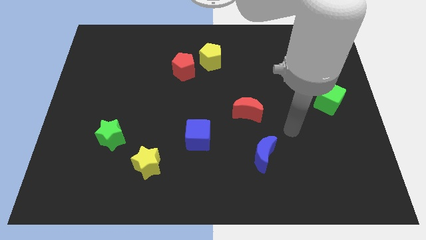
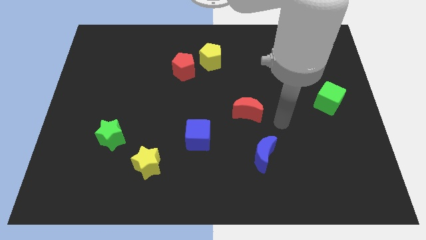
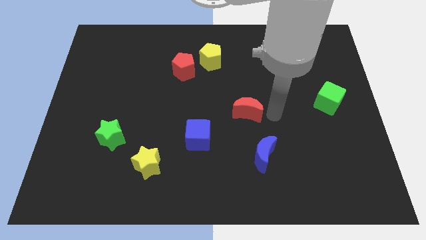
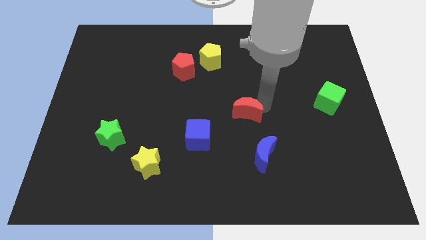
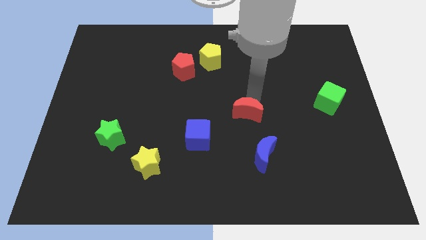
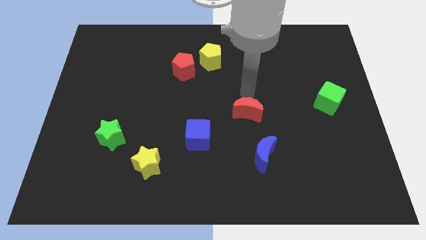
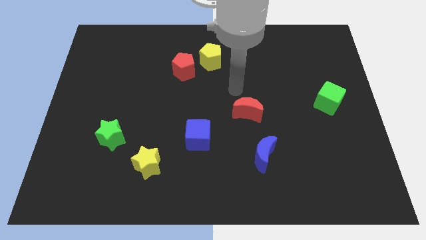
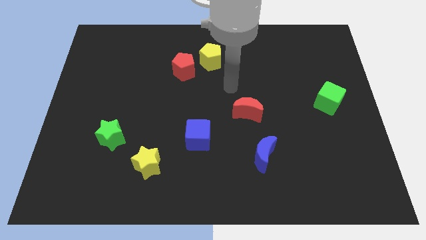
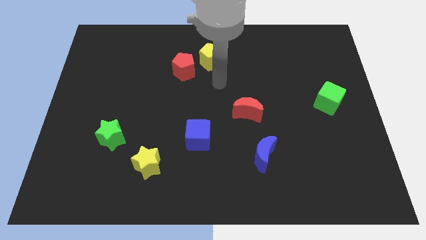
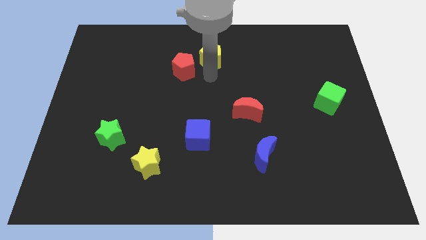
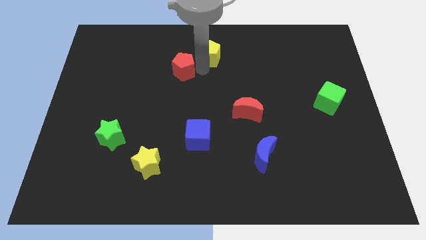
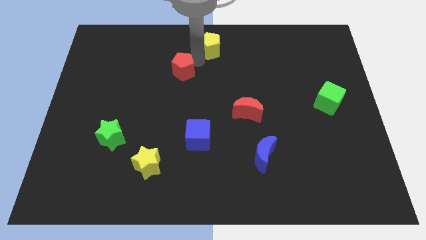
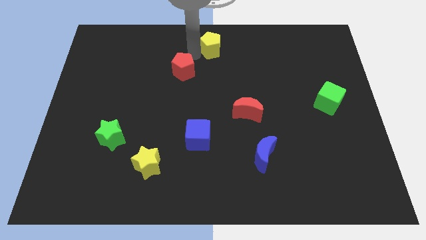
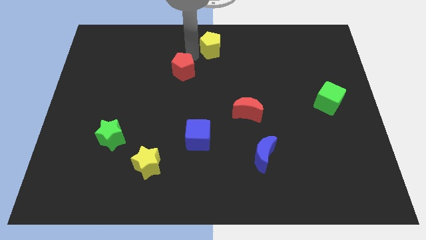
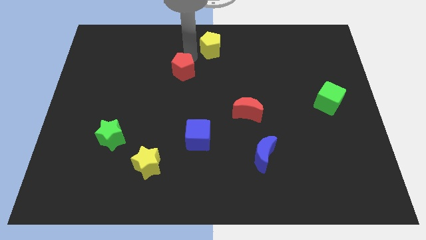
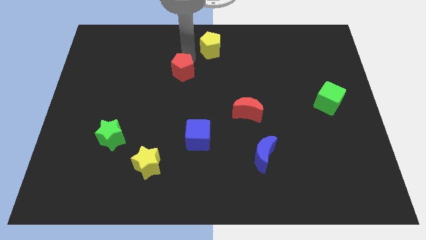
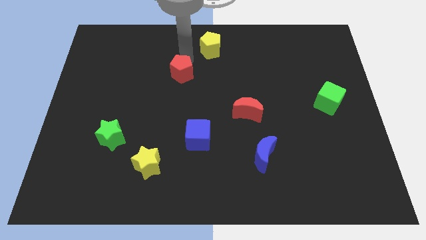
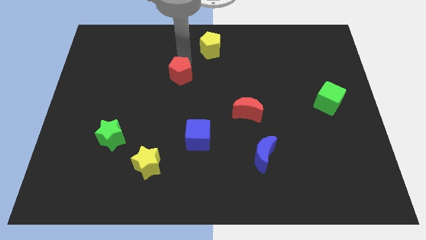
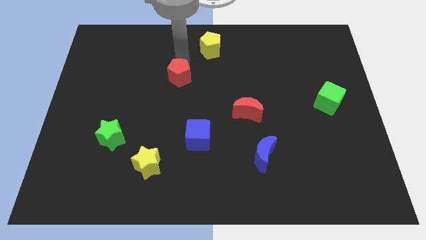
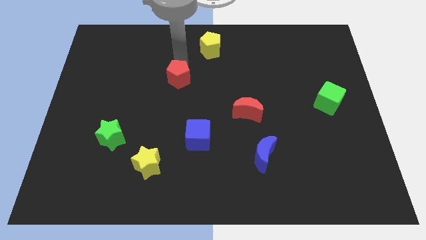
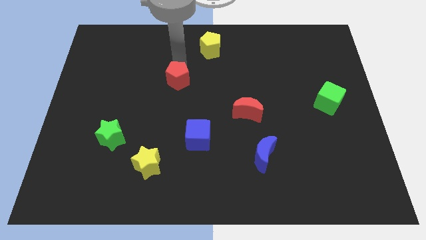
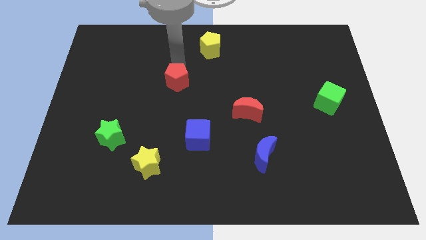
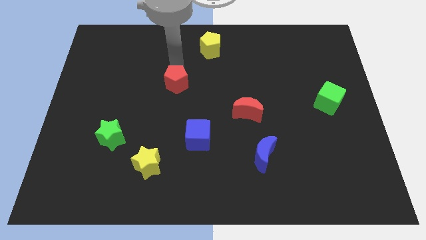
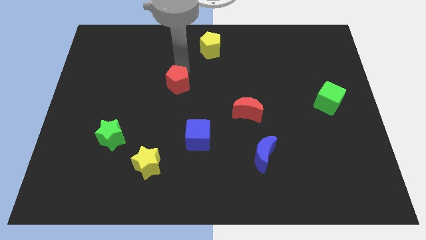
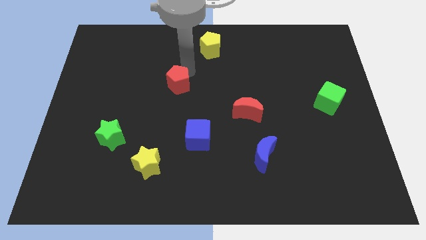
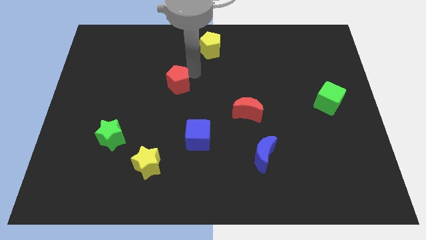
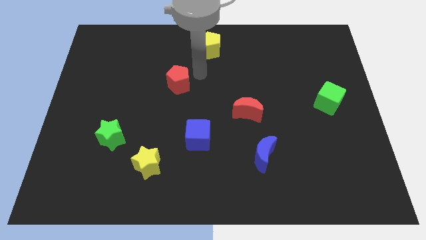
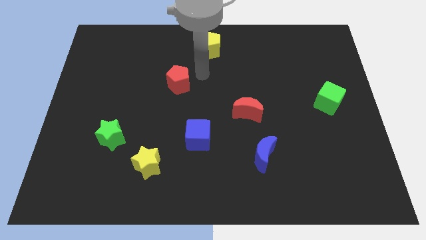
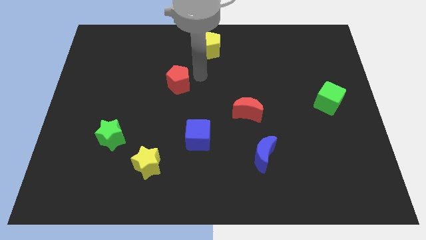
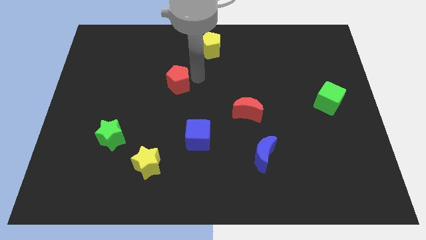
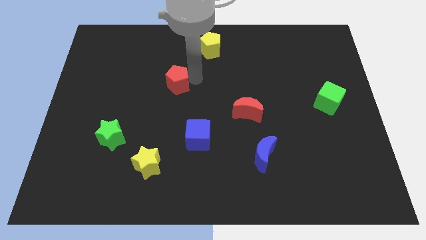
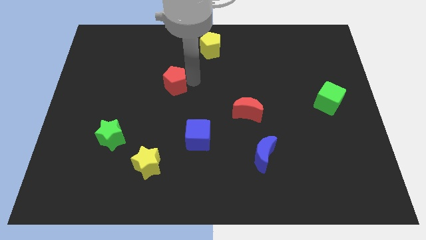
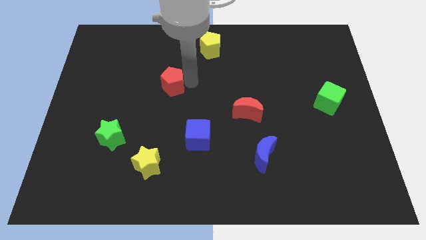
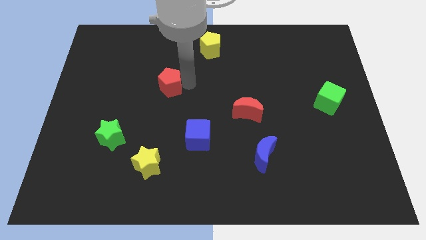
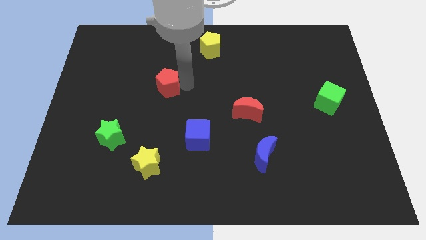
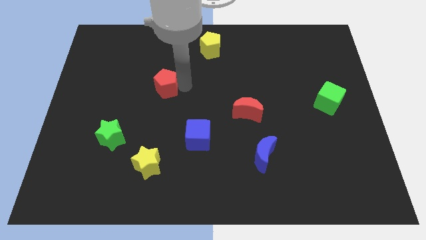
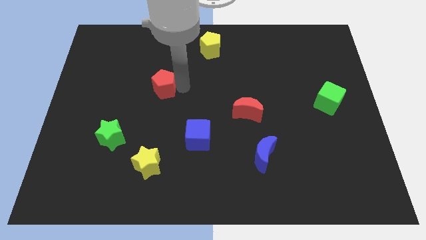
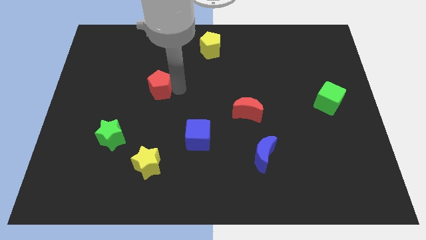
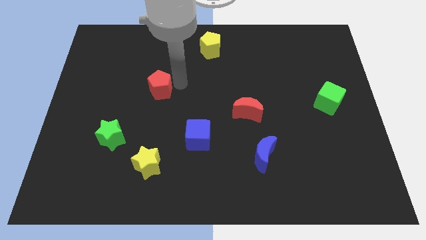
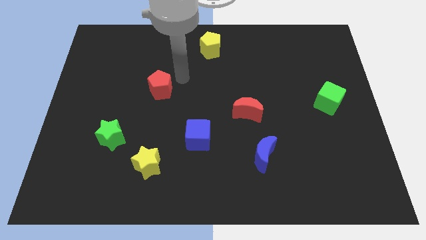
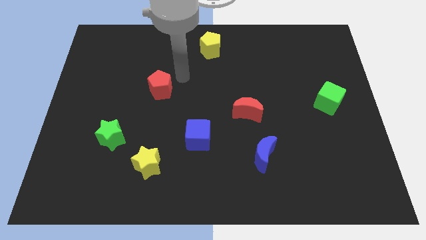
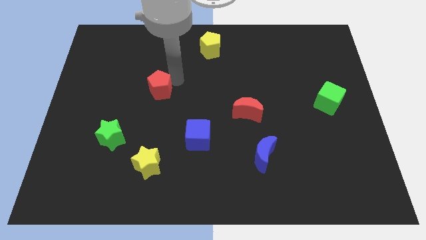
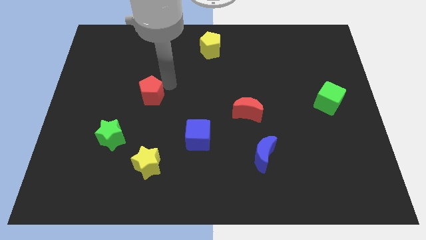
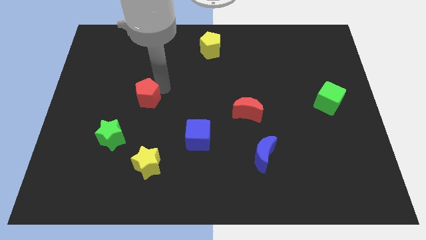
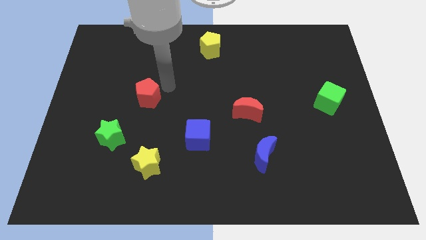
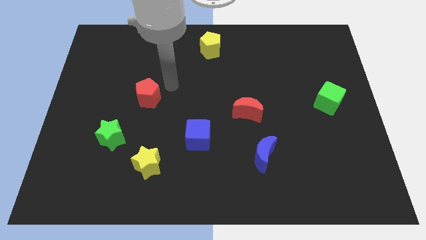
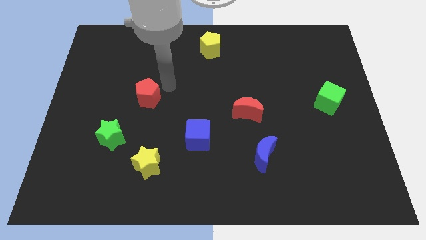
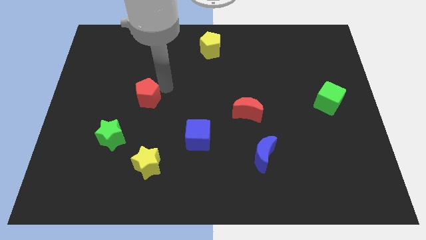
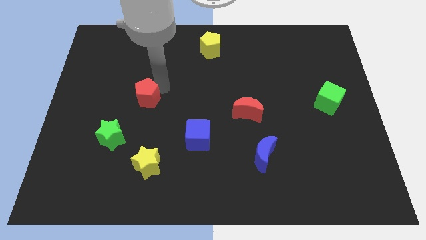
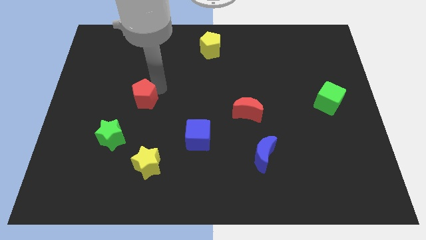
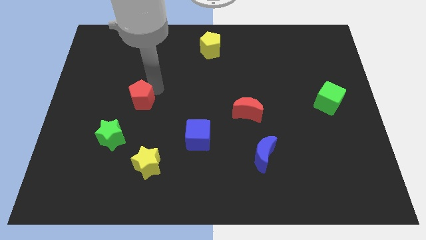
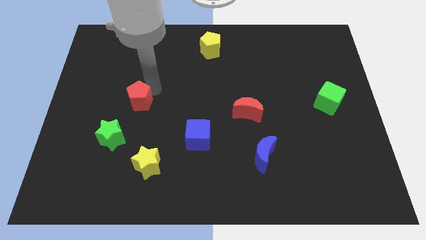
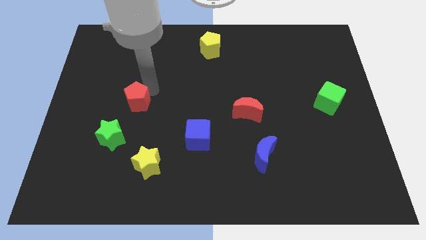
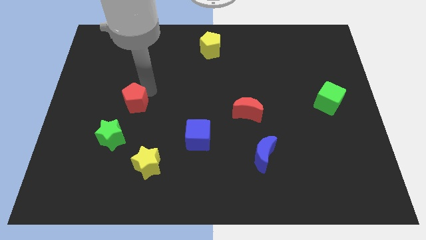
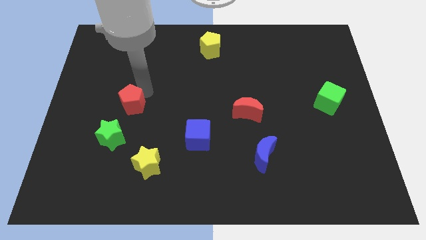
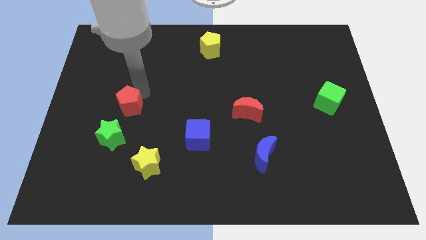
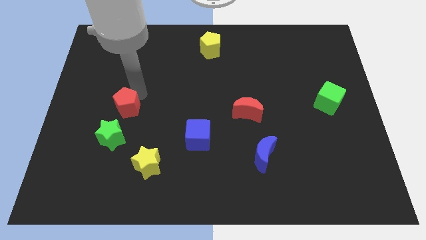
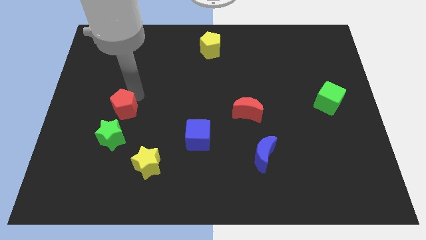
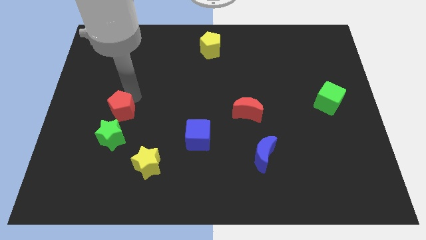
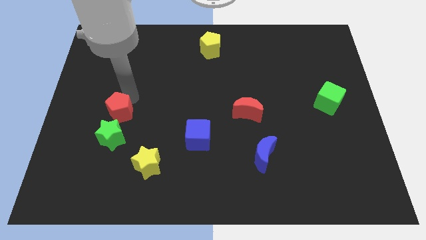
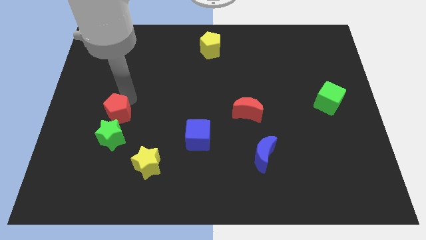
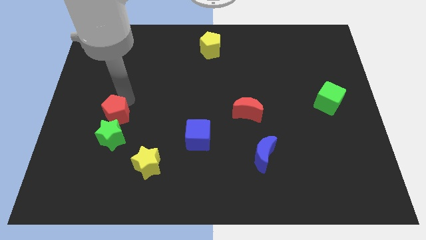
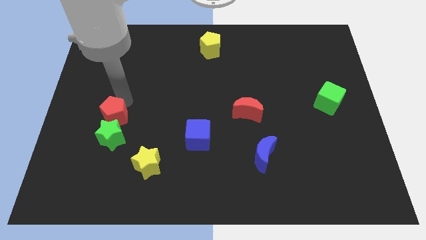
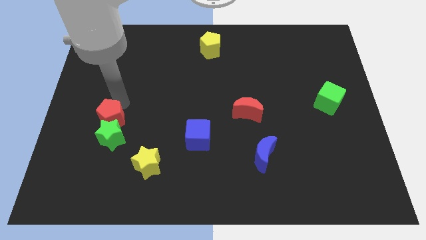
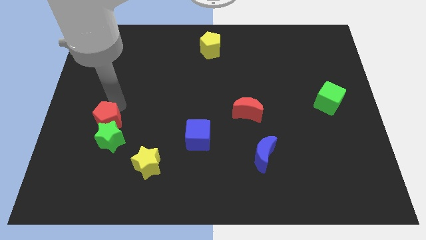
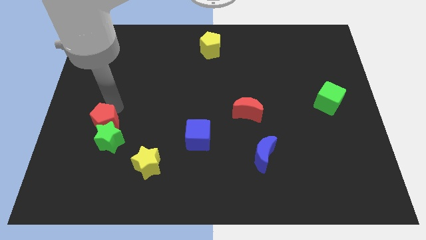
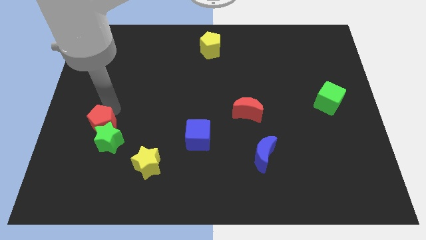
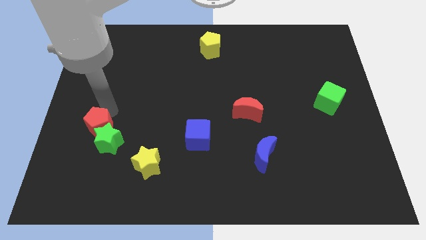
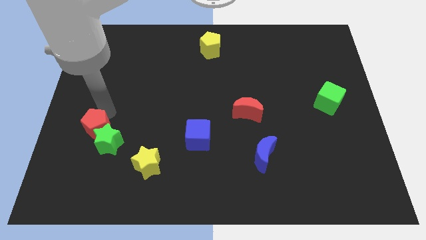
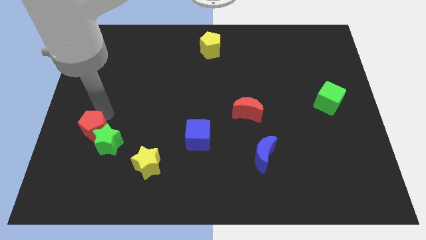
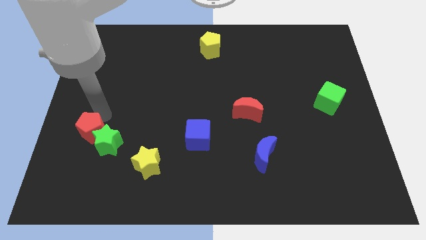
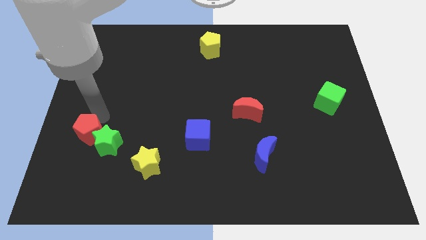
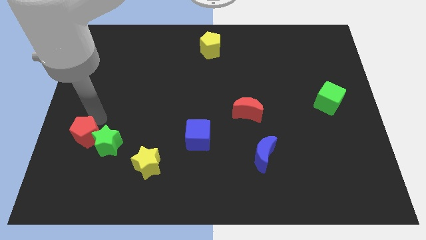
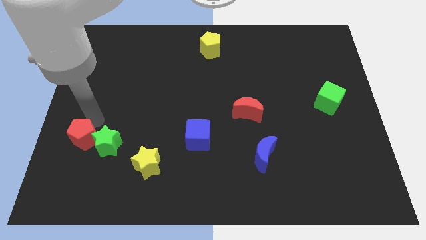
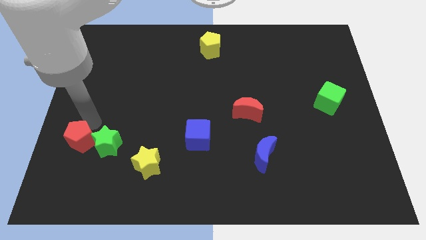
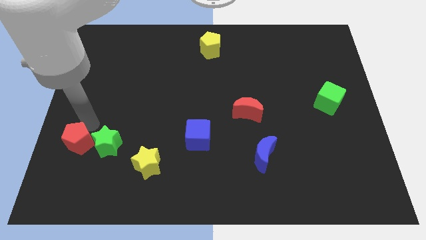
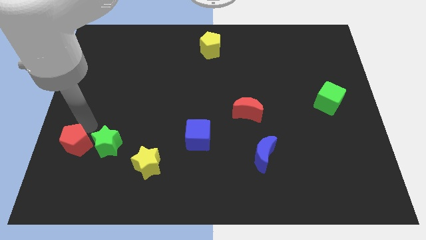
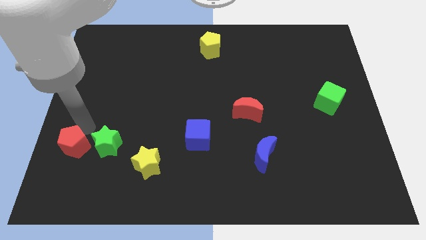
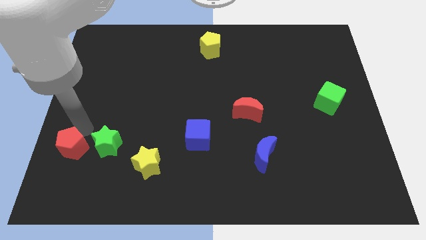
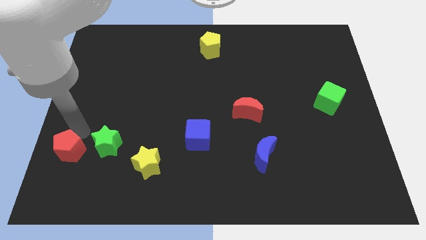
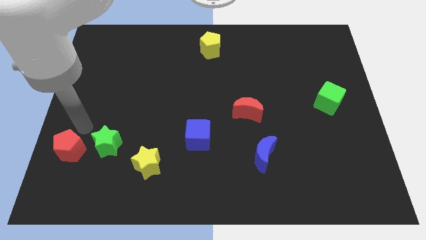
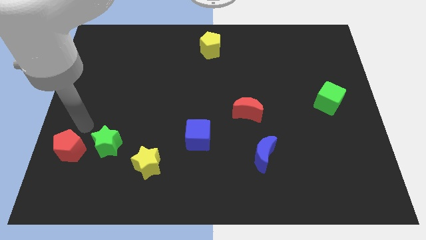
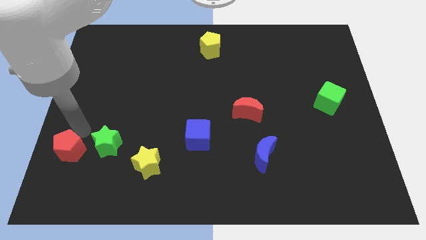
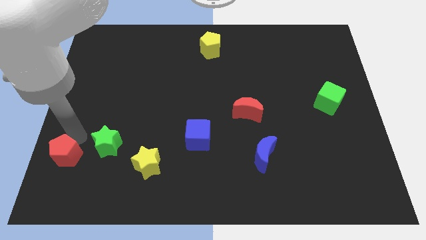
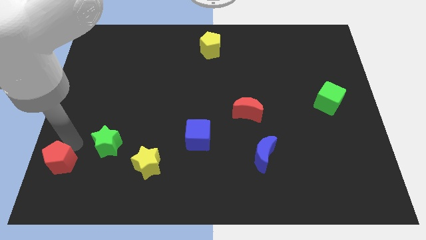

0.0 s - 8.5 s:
put the red pentagon to the bottom left corner
